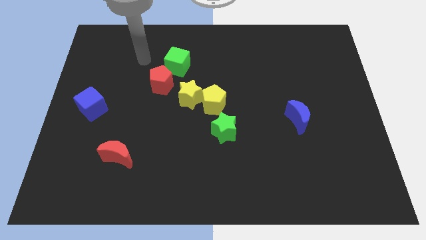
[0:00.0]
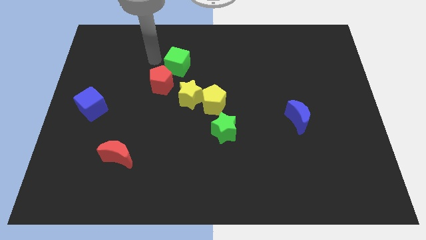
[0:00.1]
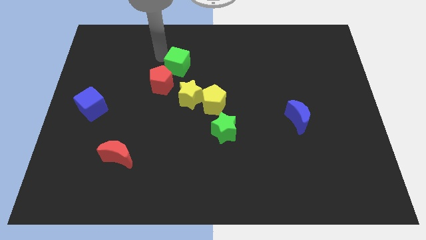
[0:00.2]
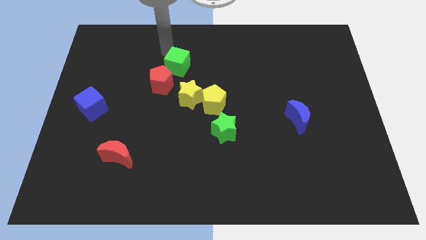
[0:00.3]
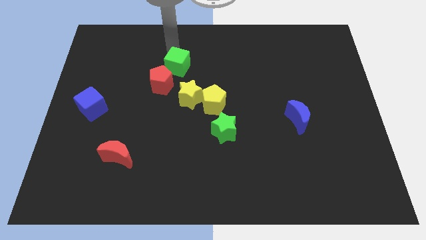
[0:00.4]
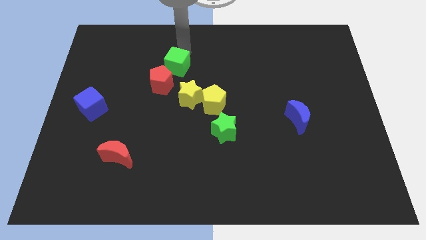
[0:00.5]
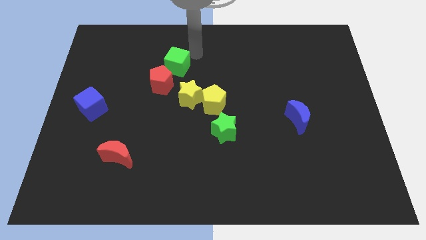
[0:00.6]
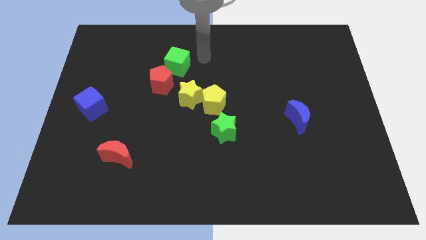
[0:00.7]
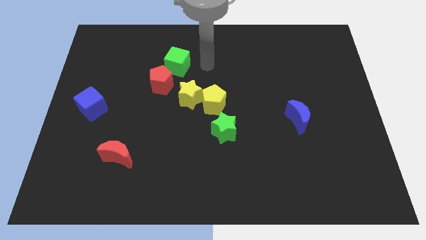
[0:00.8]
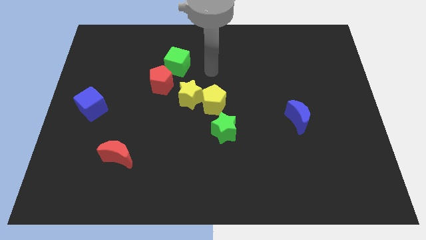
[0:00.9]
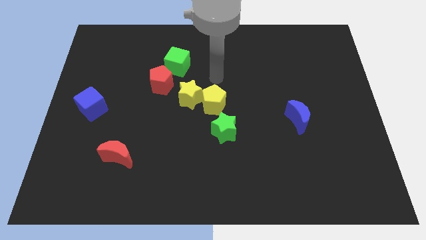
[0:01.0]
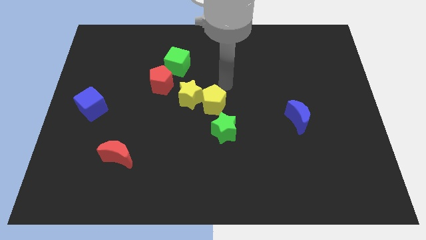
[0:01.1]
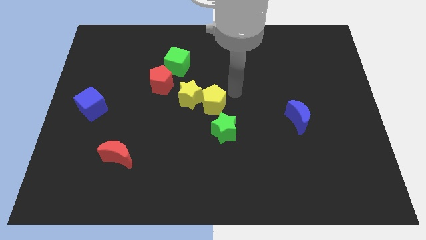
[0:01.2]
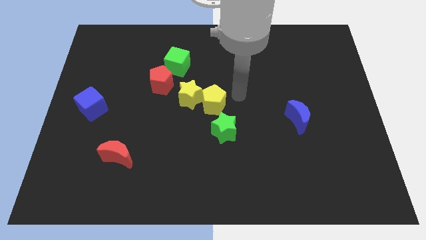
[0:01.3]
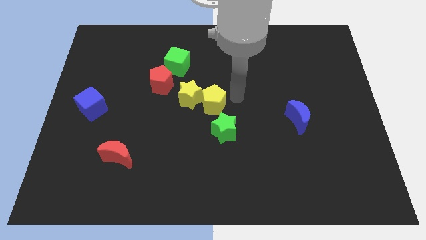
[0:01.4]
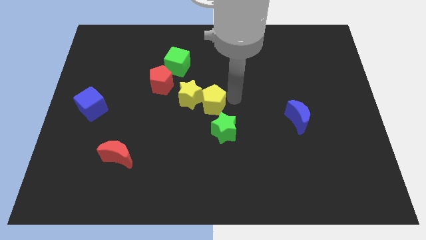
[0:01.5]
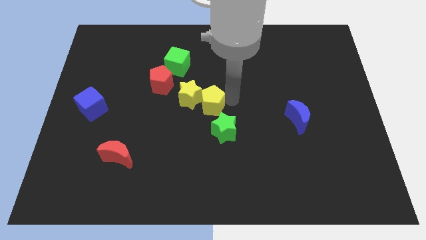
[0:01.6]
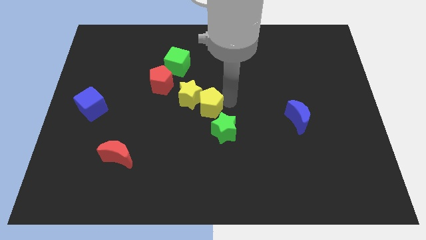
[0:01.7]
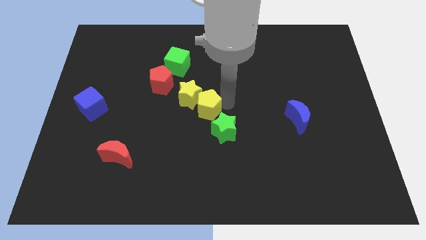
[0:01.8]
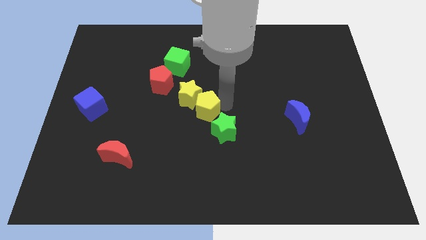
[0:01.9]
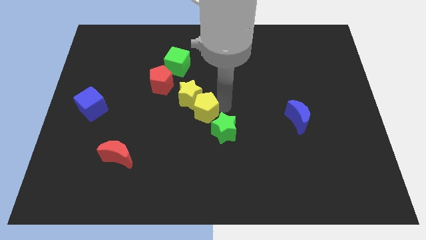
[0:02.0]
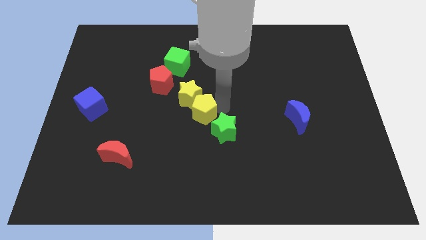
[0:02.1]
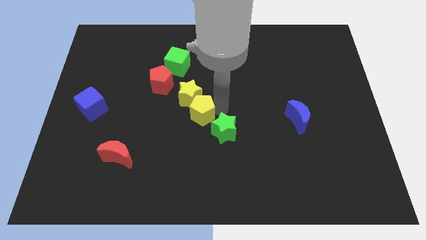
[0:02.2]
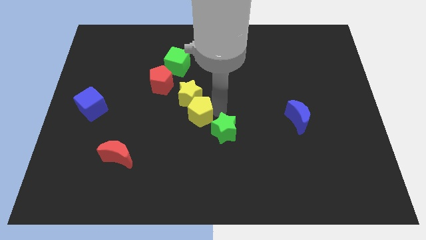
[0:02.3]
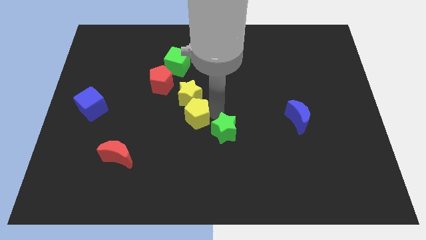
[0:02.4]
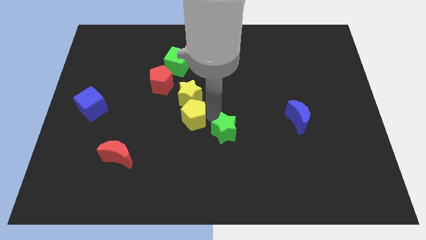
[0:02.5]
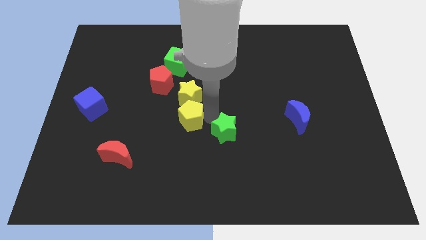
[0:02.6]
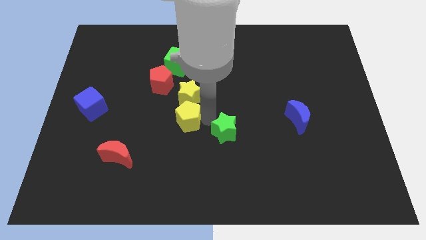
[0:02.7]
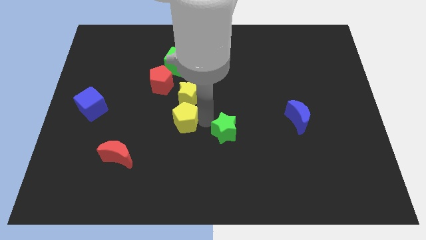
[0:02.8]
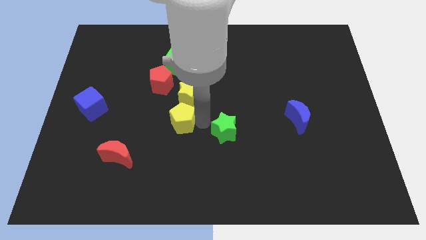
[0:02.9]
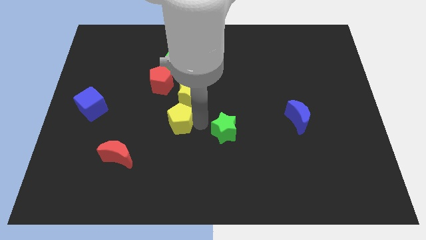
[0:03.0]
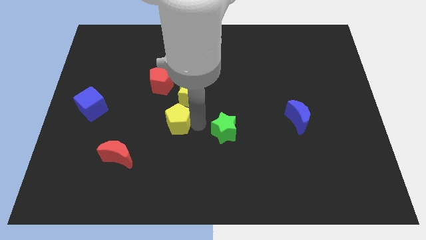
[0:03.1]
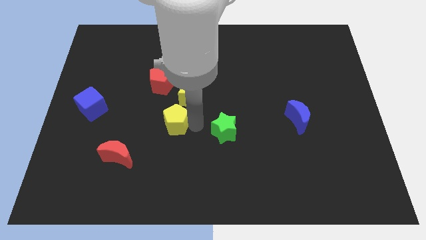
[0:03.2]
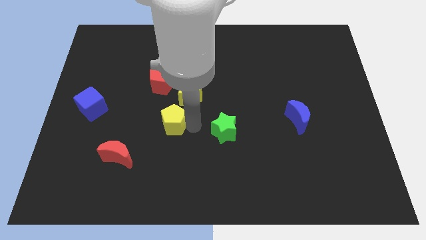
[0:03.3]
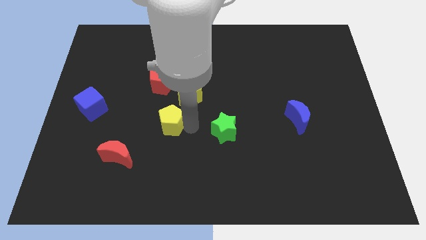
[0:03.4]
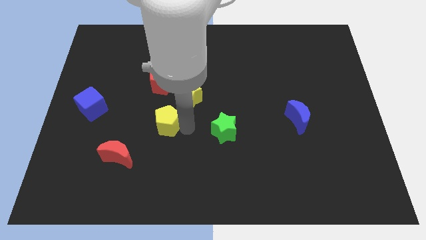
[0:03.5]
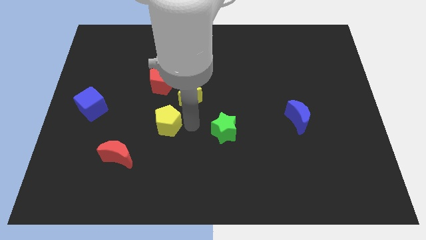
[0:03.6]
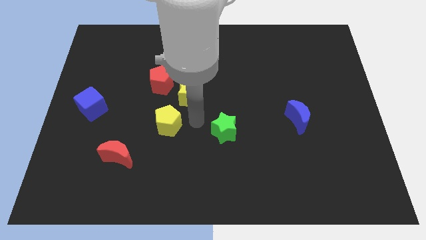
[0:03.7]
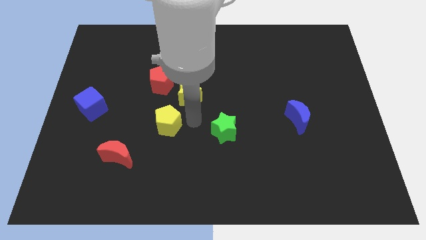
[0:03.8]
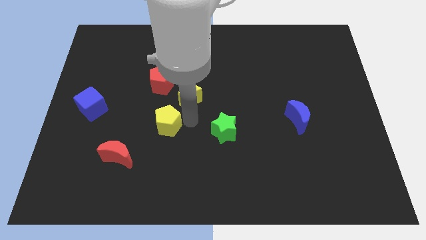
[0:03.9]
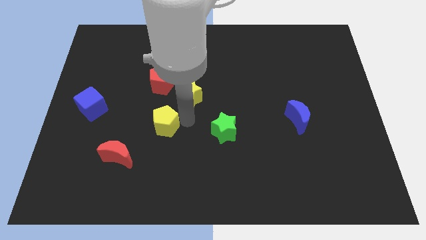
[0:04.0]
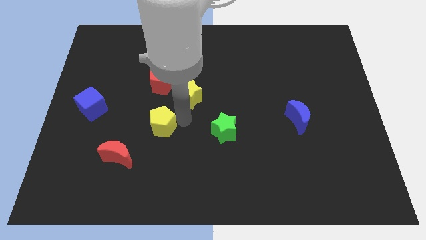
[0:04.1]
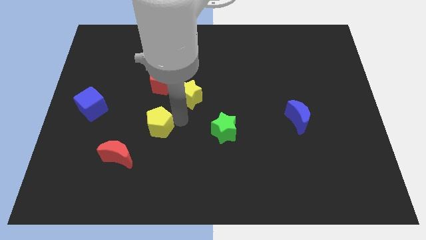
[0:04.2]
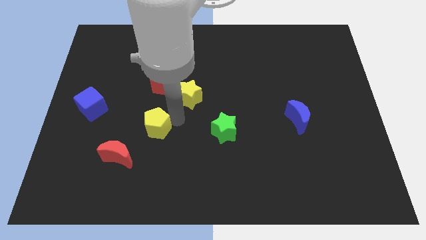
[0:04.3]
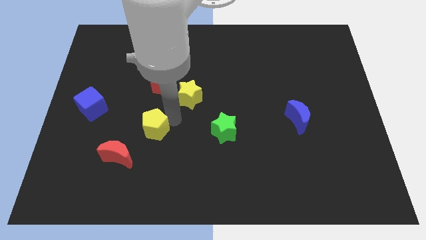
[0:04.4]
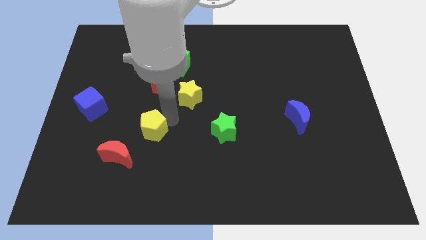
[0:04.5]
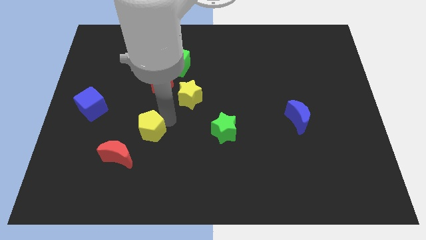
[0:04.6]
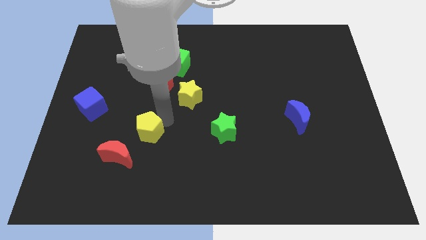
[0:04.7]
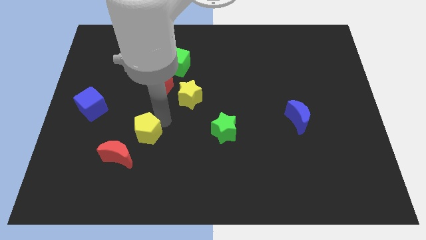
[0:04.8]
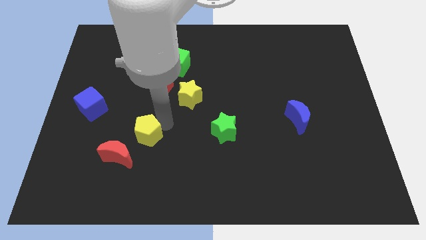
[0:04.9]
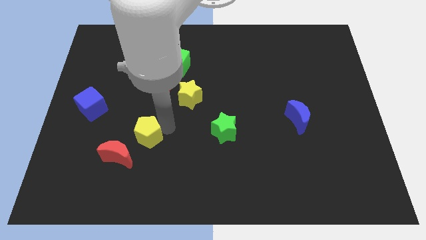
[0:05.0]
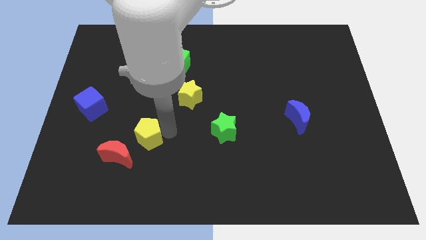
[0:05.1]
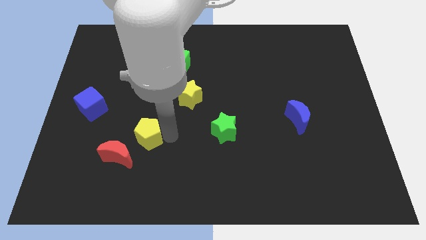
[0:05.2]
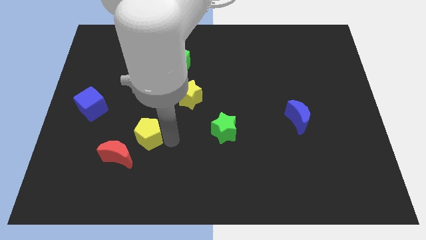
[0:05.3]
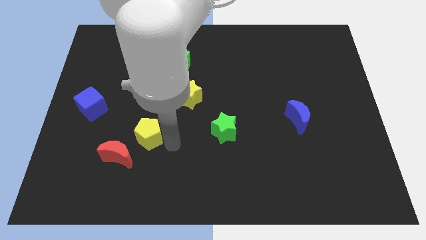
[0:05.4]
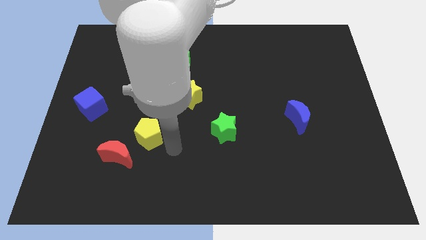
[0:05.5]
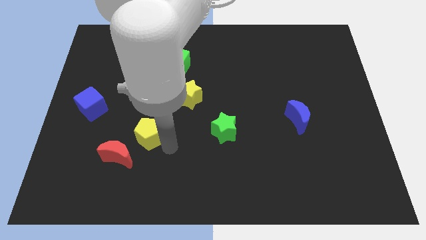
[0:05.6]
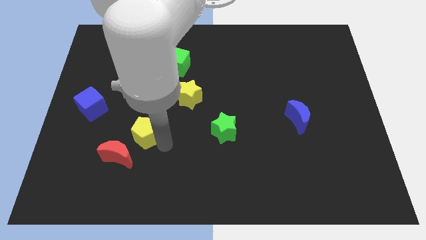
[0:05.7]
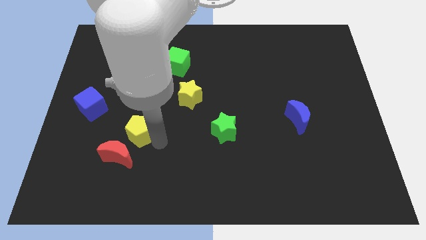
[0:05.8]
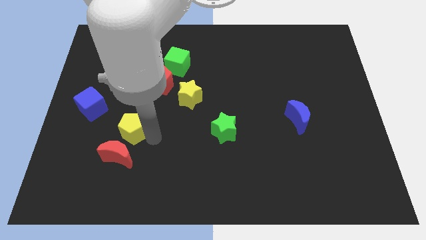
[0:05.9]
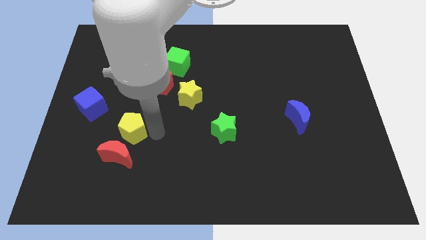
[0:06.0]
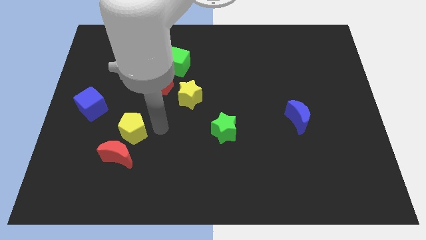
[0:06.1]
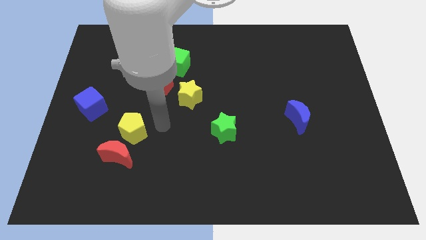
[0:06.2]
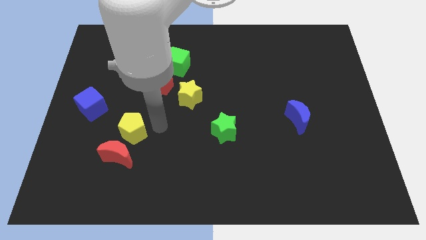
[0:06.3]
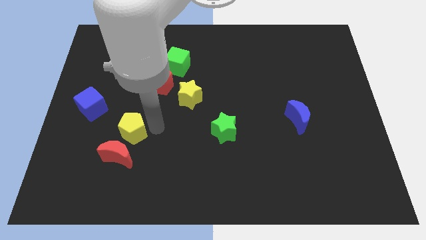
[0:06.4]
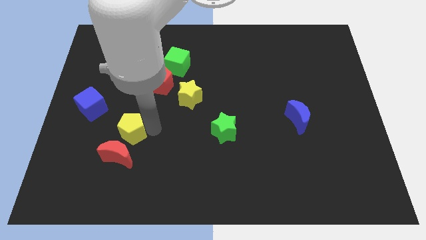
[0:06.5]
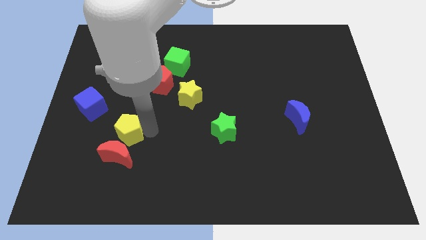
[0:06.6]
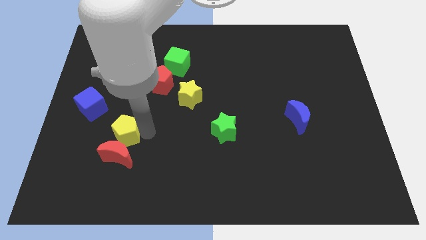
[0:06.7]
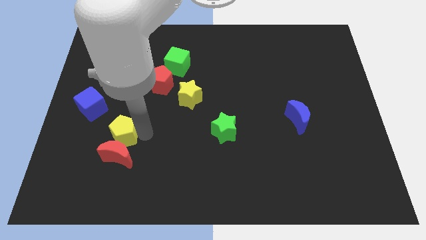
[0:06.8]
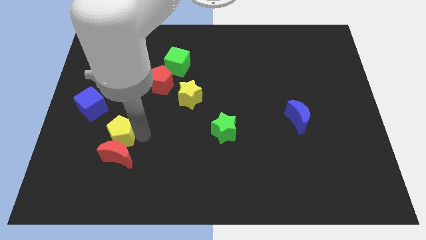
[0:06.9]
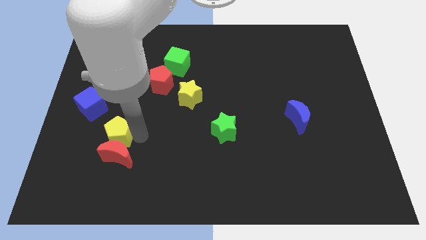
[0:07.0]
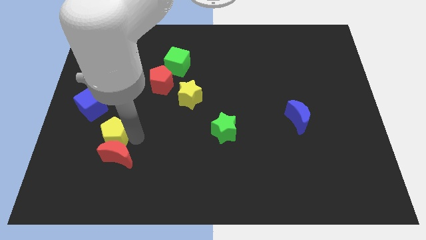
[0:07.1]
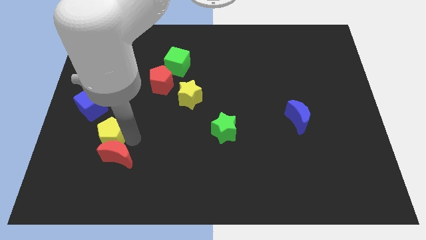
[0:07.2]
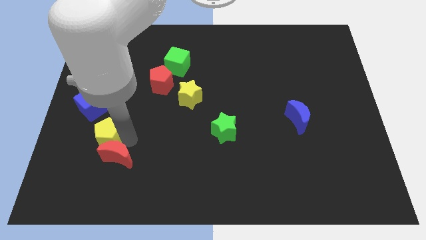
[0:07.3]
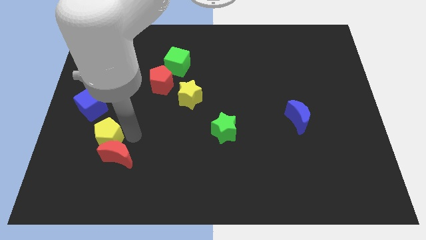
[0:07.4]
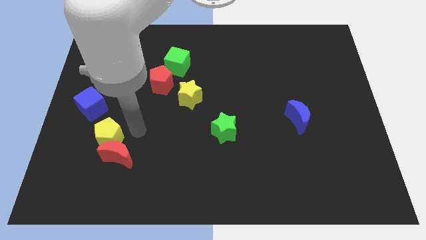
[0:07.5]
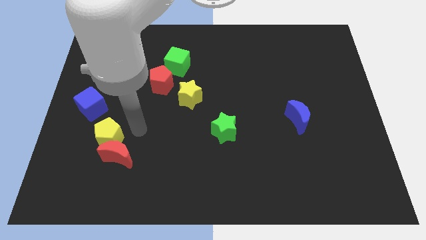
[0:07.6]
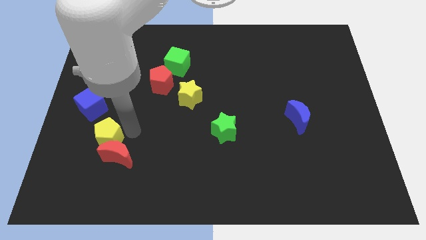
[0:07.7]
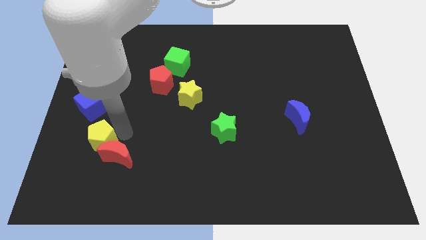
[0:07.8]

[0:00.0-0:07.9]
push the yellow pentagon to the bottom of the blue cube

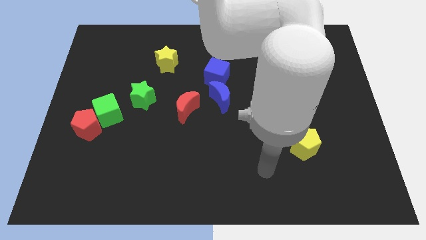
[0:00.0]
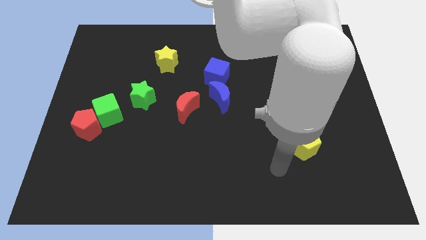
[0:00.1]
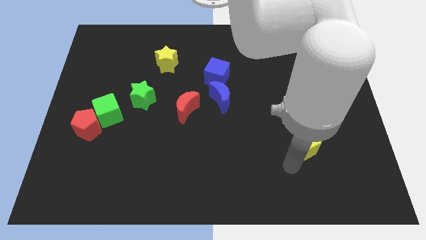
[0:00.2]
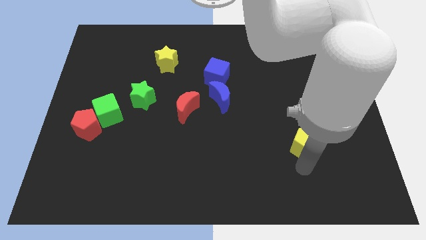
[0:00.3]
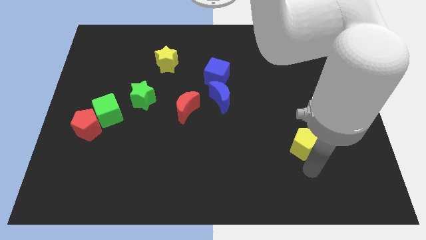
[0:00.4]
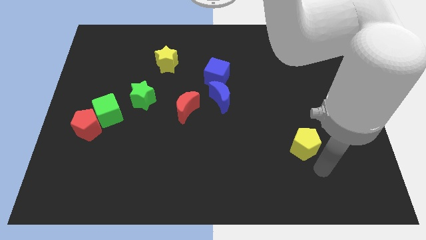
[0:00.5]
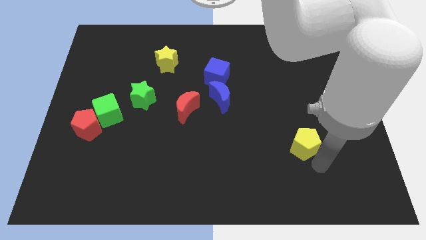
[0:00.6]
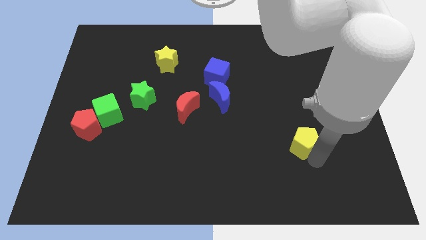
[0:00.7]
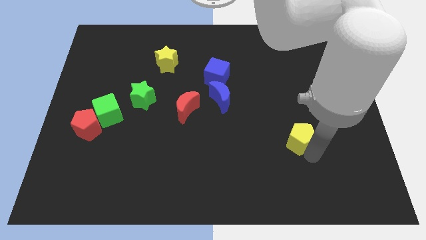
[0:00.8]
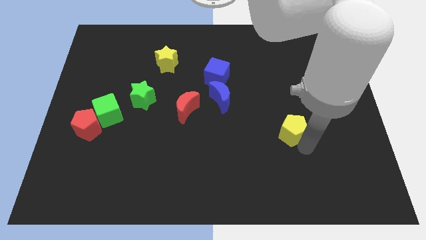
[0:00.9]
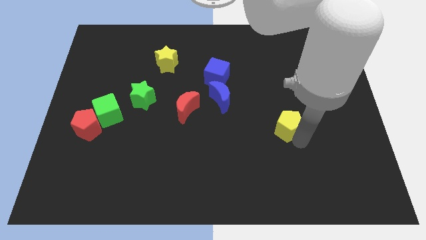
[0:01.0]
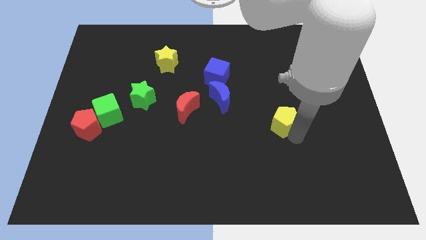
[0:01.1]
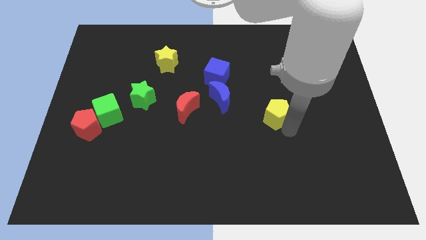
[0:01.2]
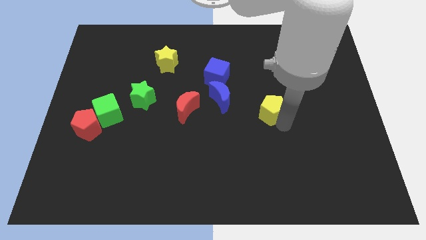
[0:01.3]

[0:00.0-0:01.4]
push the yellow pentagon right of the blue moon
